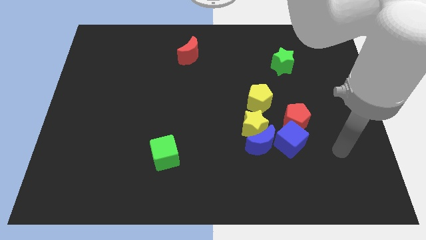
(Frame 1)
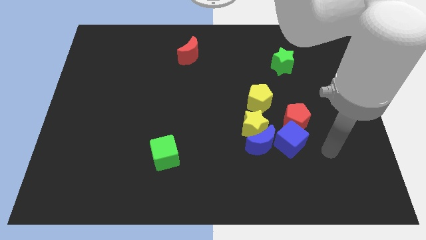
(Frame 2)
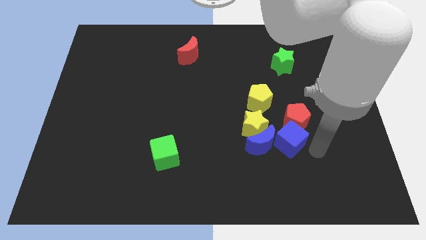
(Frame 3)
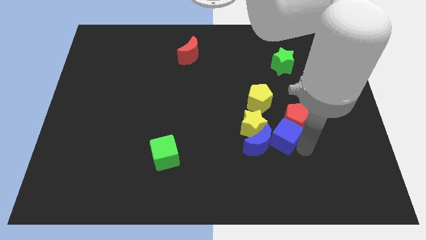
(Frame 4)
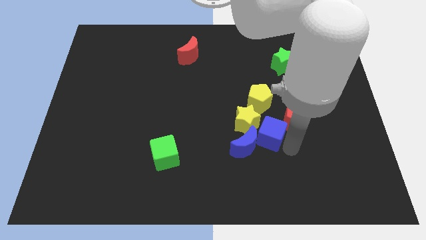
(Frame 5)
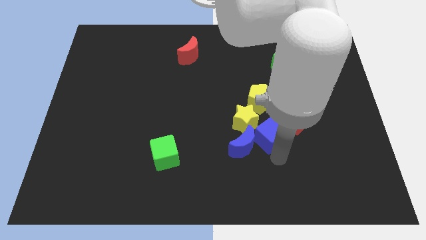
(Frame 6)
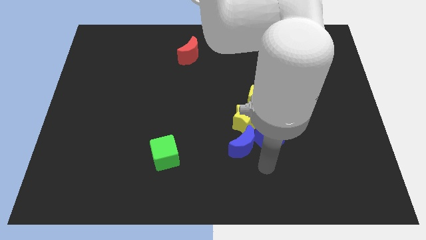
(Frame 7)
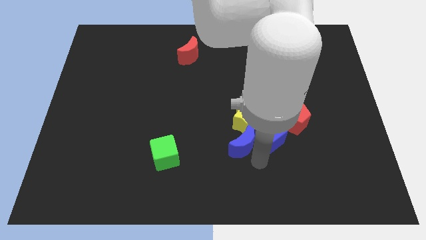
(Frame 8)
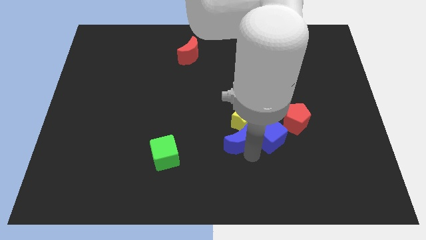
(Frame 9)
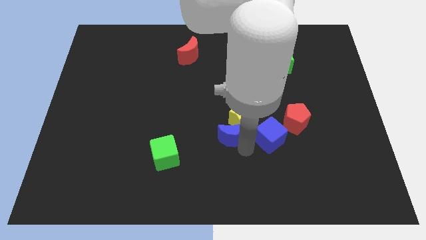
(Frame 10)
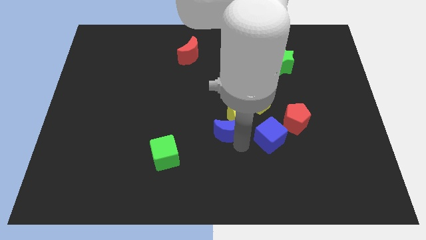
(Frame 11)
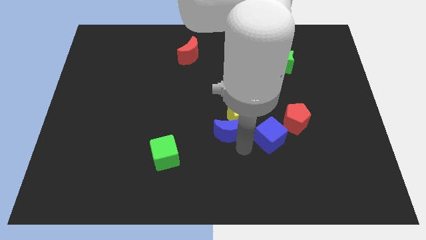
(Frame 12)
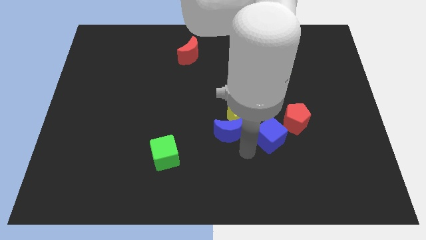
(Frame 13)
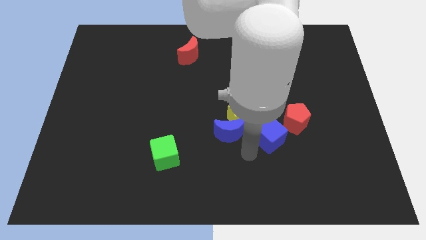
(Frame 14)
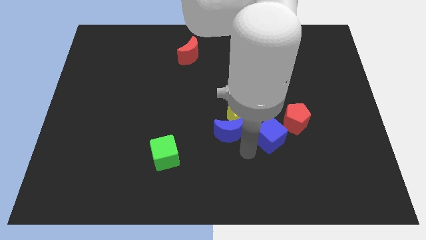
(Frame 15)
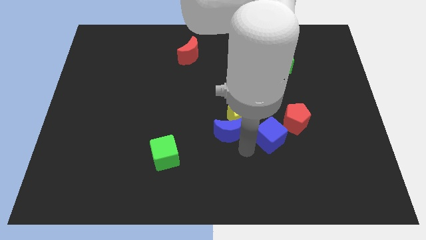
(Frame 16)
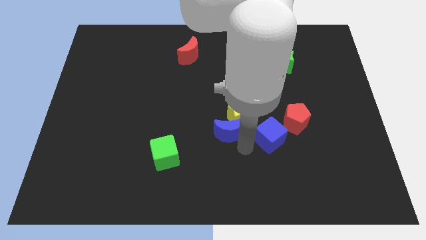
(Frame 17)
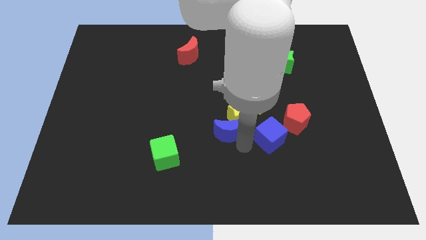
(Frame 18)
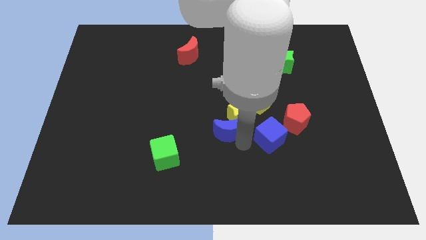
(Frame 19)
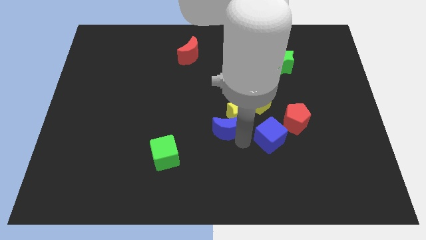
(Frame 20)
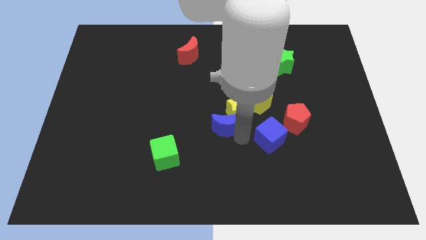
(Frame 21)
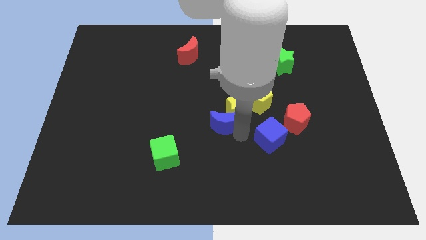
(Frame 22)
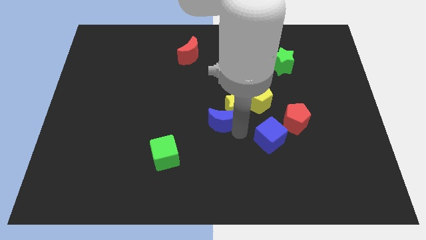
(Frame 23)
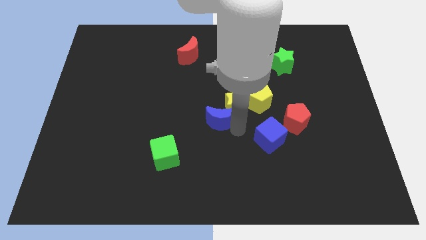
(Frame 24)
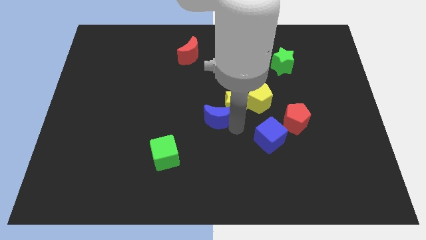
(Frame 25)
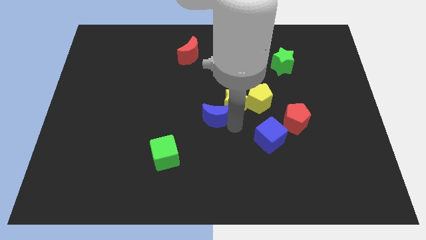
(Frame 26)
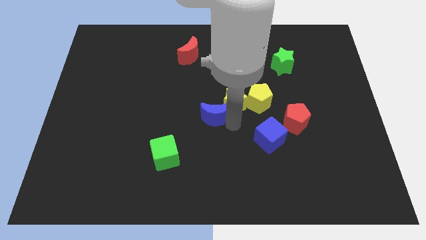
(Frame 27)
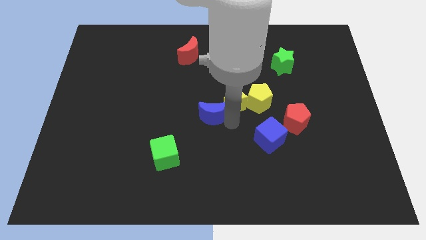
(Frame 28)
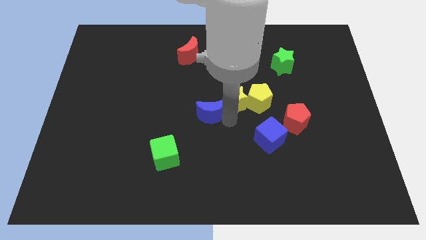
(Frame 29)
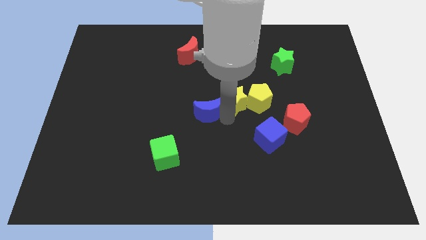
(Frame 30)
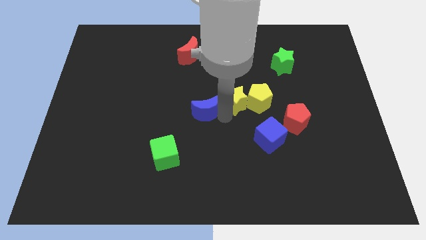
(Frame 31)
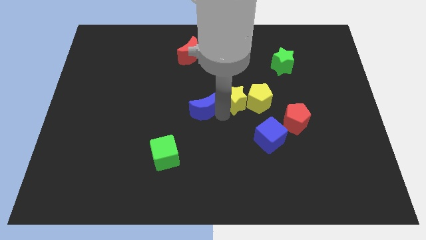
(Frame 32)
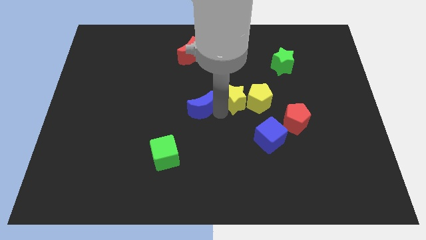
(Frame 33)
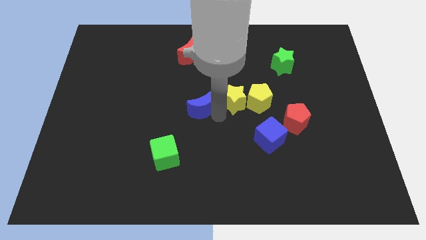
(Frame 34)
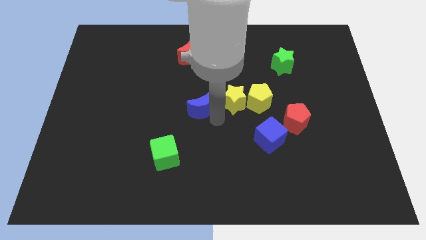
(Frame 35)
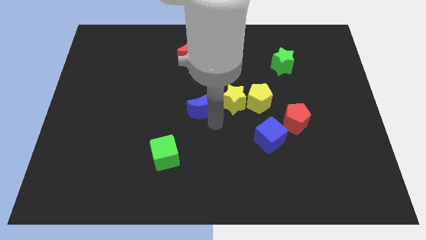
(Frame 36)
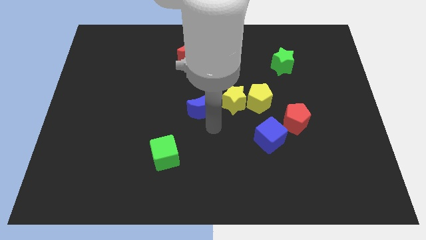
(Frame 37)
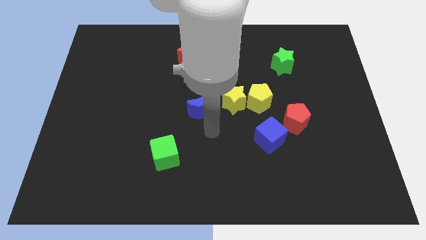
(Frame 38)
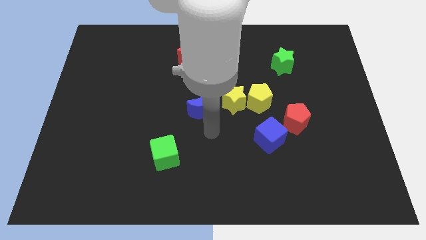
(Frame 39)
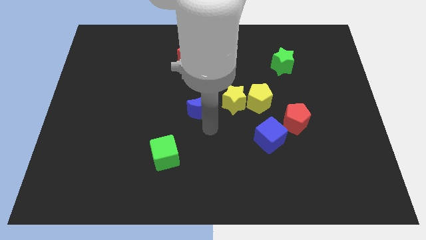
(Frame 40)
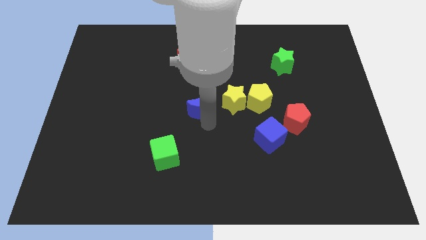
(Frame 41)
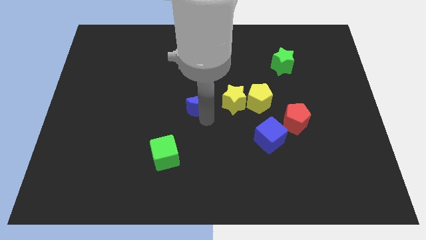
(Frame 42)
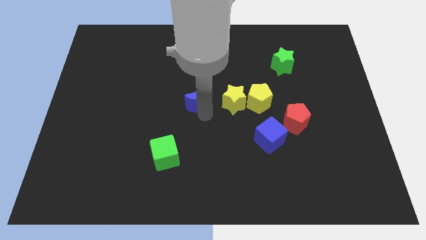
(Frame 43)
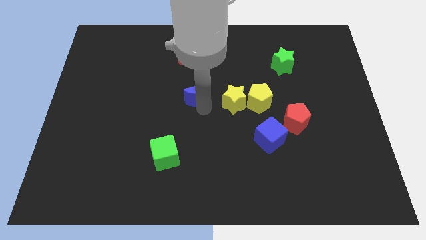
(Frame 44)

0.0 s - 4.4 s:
put the blue moon to the bottom of the red moon

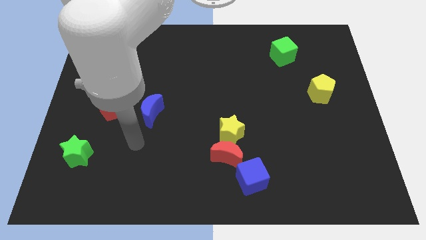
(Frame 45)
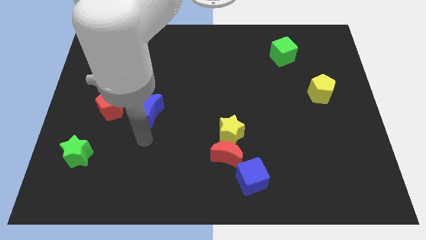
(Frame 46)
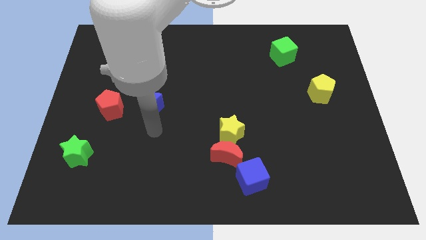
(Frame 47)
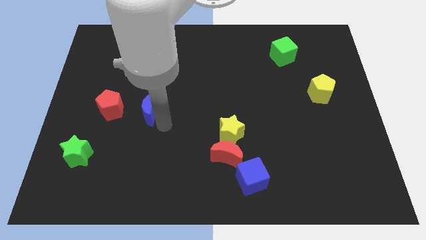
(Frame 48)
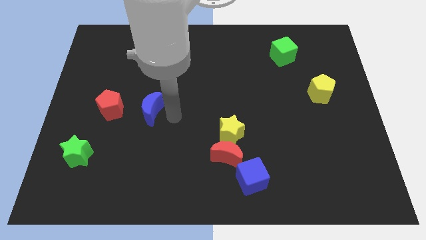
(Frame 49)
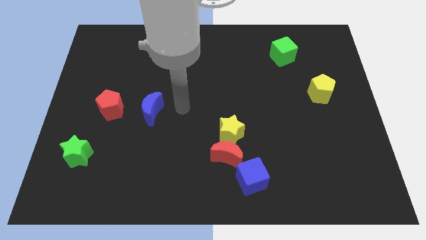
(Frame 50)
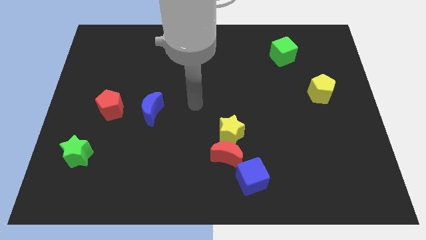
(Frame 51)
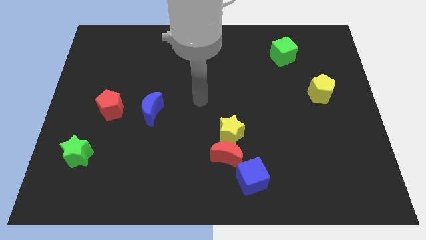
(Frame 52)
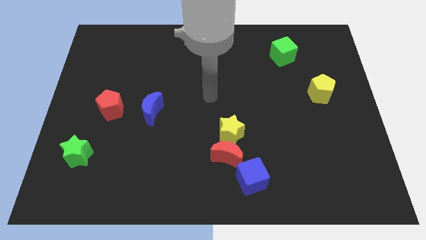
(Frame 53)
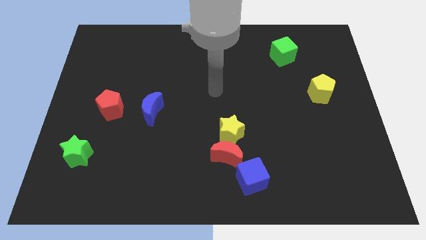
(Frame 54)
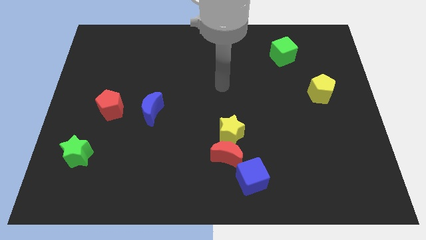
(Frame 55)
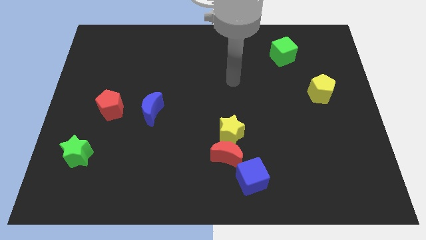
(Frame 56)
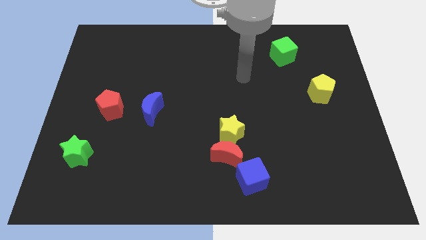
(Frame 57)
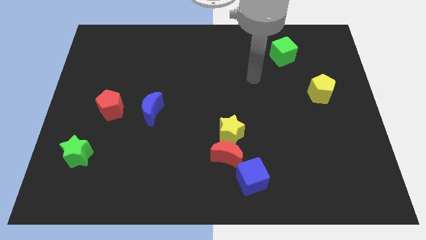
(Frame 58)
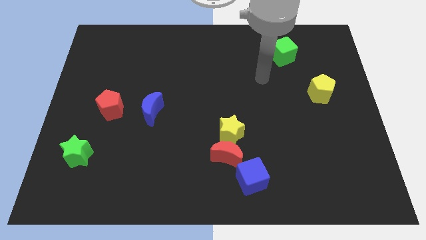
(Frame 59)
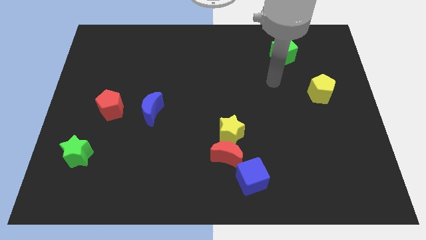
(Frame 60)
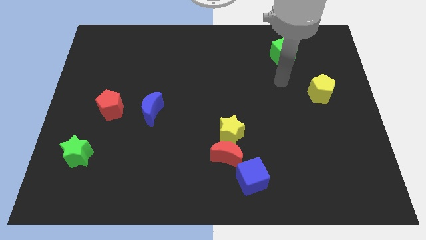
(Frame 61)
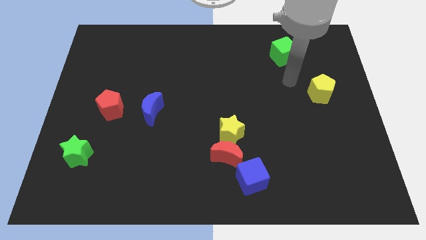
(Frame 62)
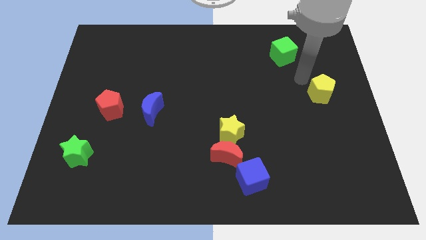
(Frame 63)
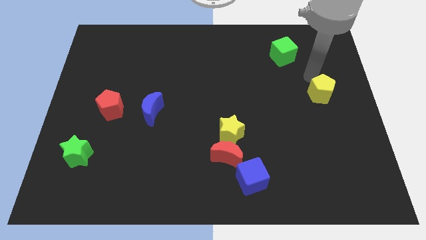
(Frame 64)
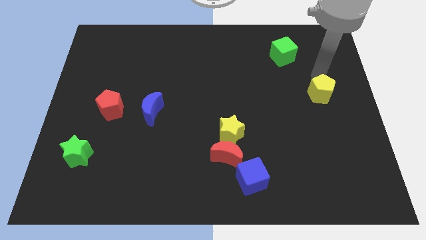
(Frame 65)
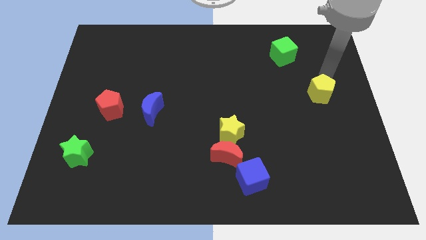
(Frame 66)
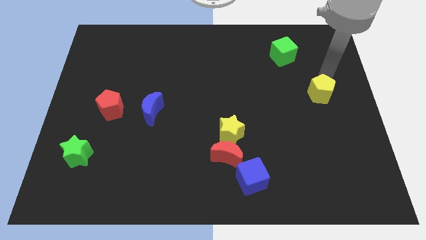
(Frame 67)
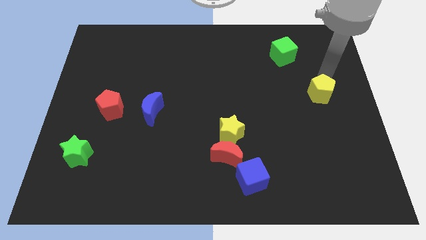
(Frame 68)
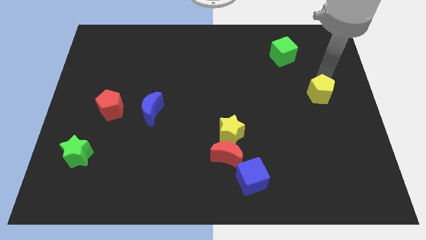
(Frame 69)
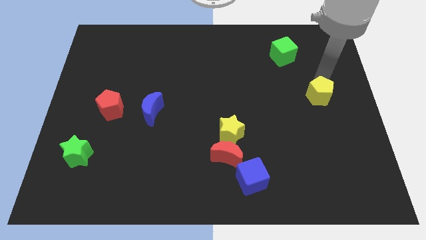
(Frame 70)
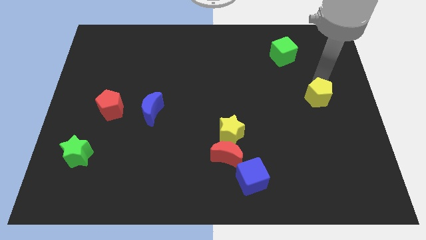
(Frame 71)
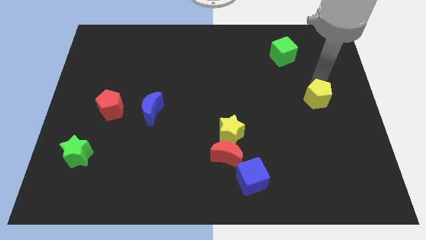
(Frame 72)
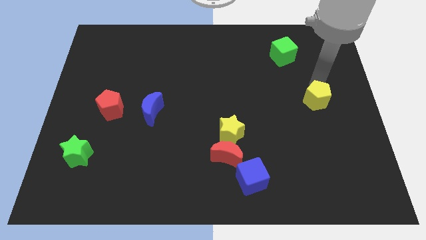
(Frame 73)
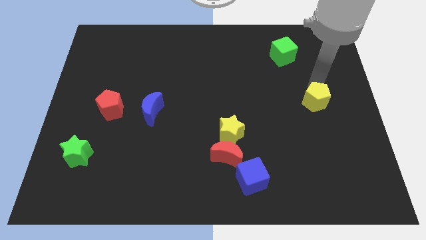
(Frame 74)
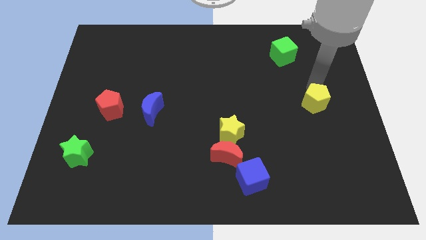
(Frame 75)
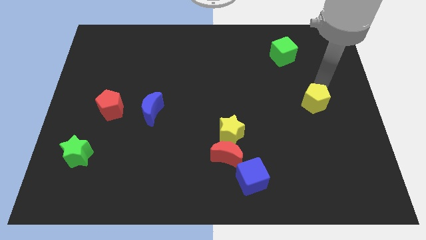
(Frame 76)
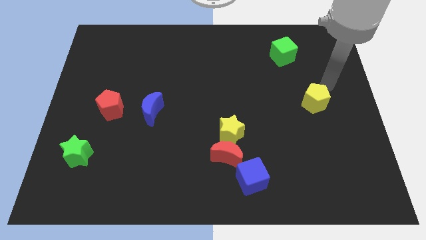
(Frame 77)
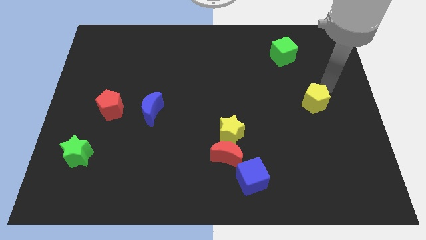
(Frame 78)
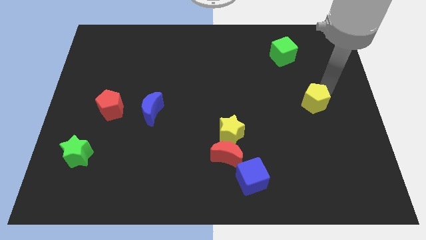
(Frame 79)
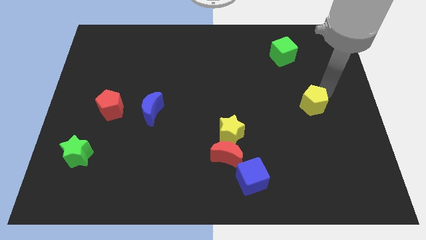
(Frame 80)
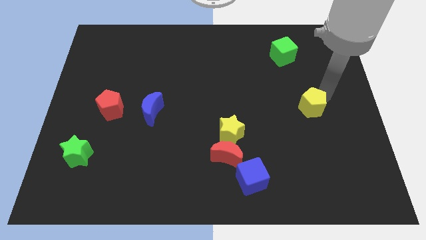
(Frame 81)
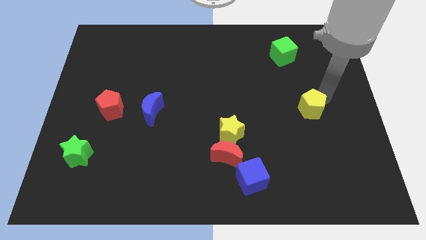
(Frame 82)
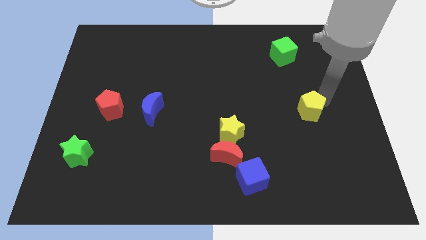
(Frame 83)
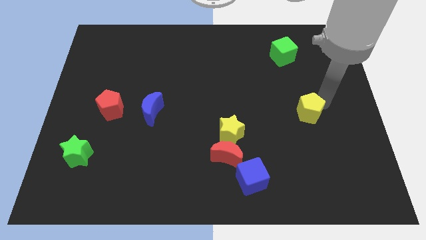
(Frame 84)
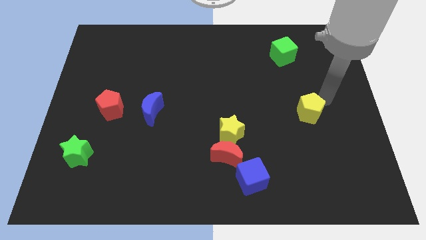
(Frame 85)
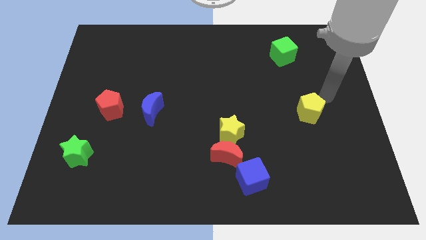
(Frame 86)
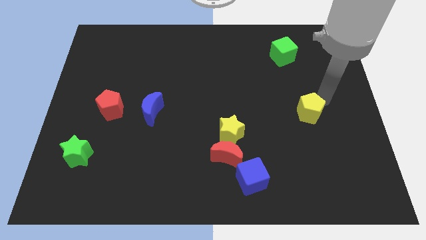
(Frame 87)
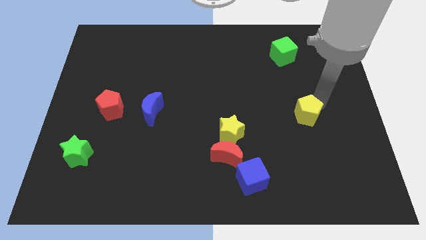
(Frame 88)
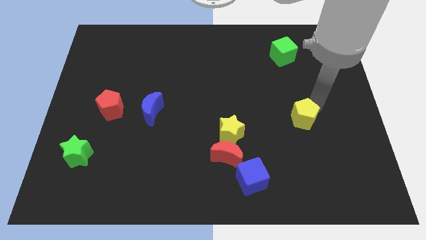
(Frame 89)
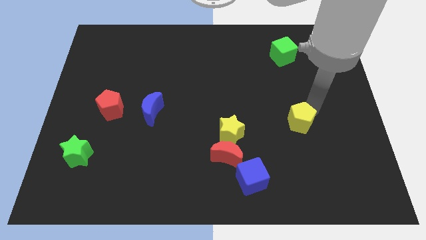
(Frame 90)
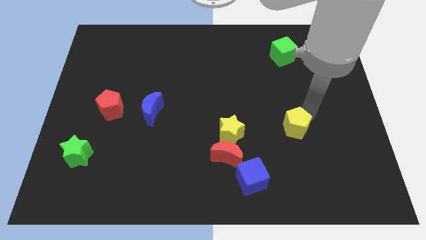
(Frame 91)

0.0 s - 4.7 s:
move the yellow pentagon to the right side of the yellow star
